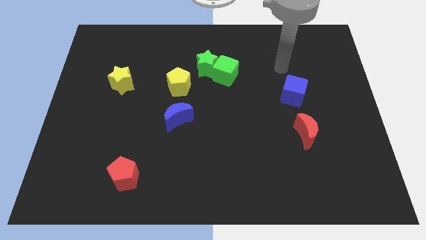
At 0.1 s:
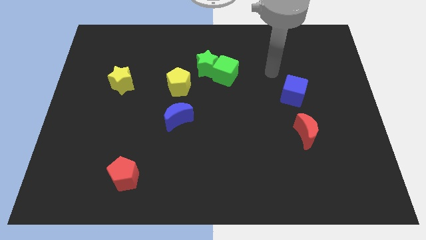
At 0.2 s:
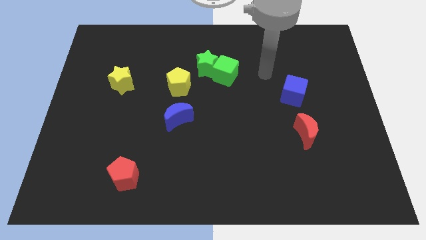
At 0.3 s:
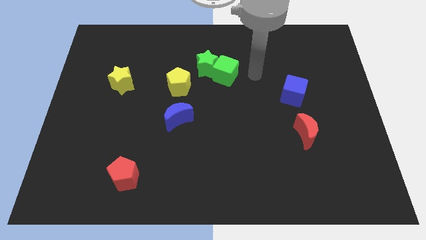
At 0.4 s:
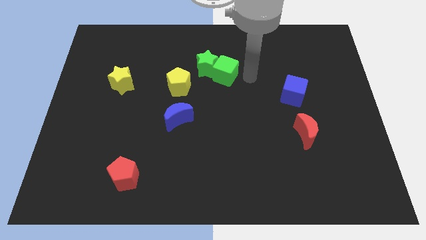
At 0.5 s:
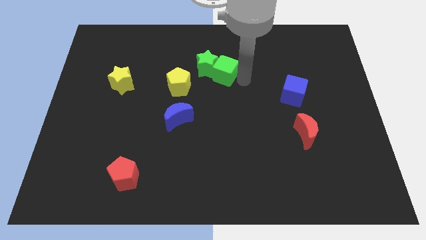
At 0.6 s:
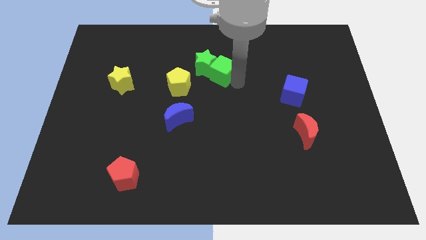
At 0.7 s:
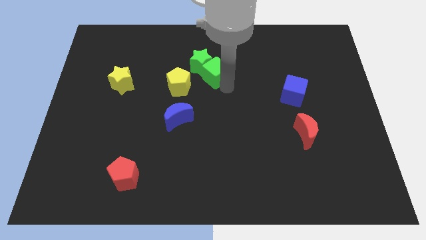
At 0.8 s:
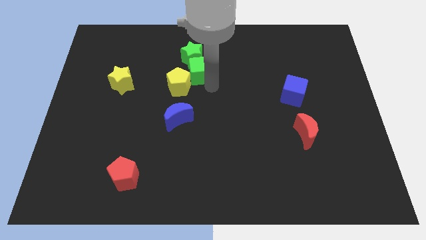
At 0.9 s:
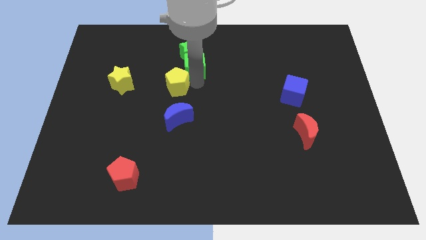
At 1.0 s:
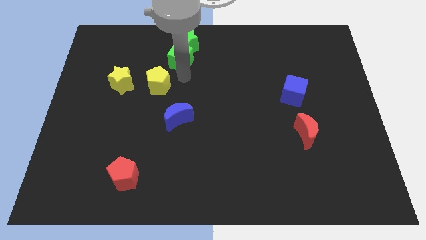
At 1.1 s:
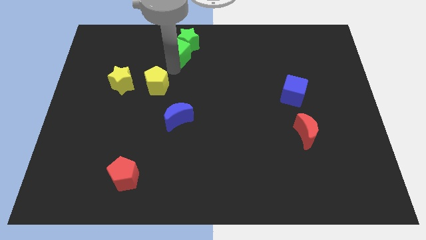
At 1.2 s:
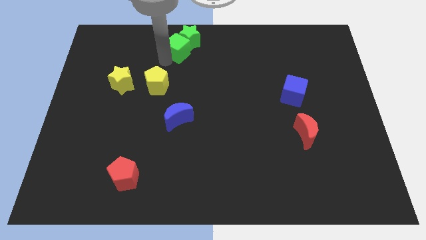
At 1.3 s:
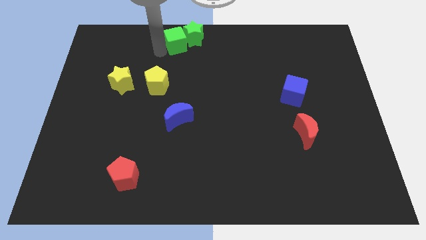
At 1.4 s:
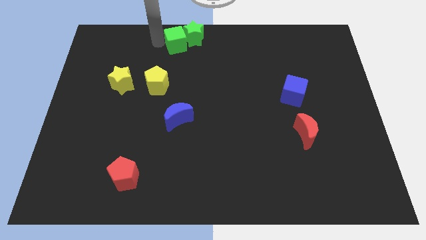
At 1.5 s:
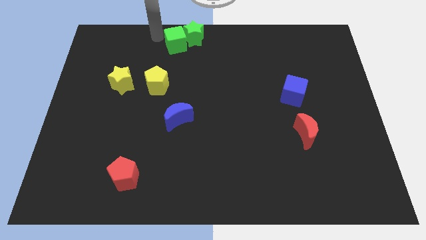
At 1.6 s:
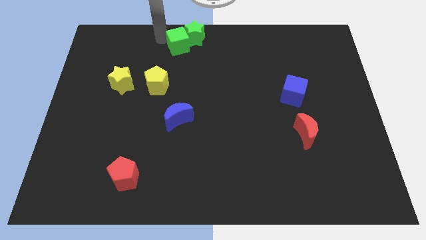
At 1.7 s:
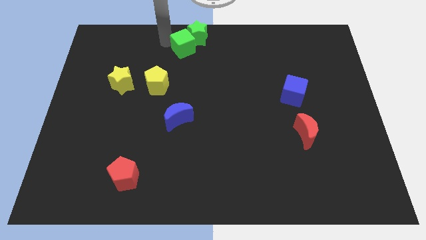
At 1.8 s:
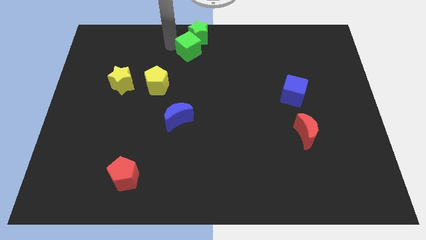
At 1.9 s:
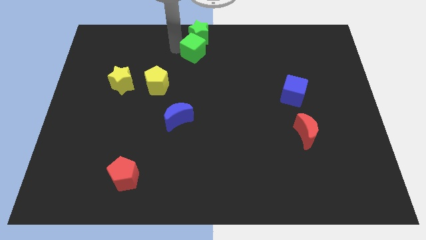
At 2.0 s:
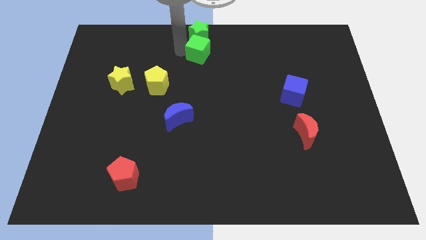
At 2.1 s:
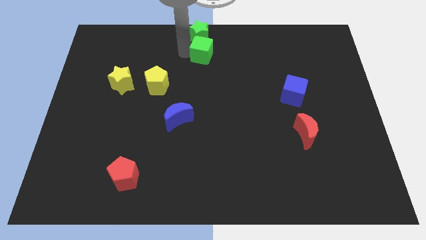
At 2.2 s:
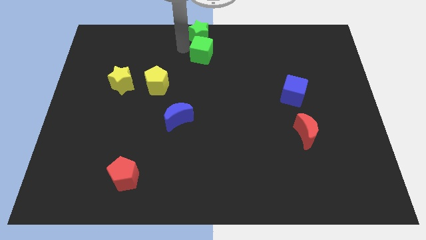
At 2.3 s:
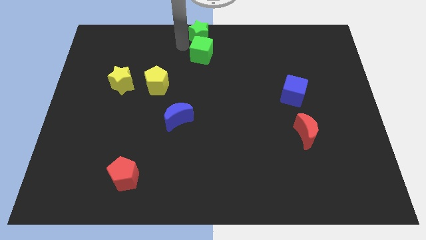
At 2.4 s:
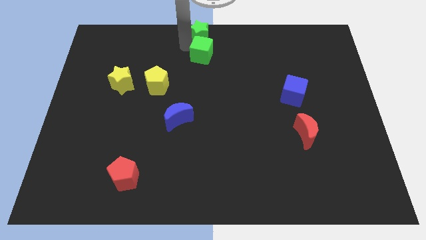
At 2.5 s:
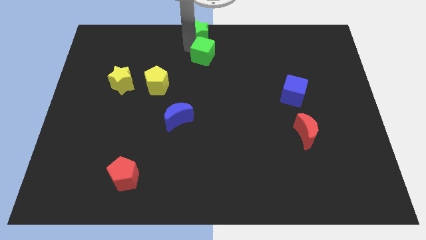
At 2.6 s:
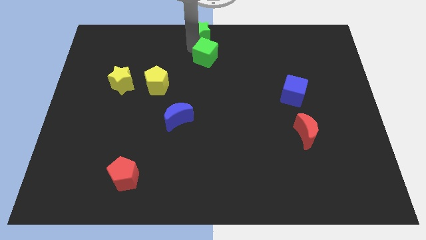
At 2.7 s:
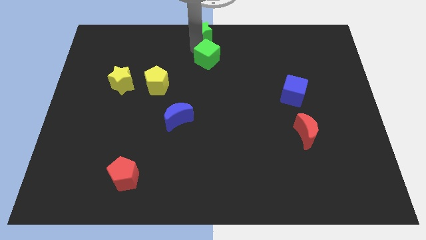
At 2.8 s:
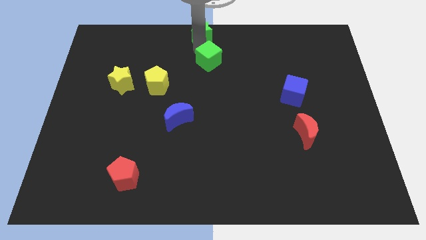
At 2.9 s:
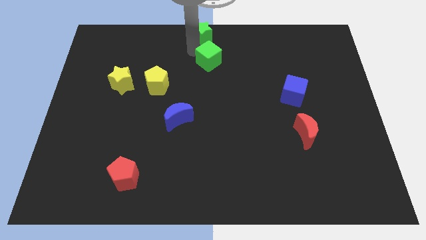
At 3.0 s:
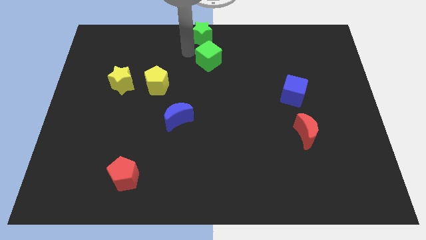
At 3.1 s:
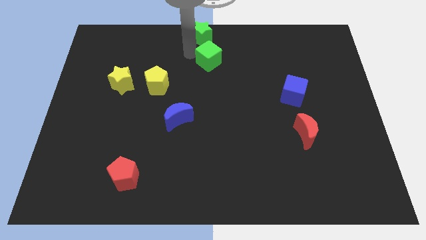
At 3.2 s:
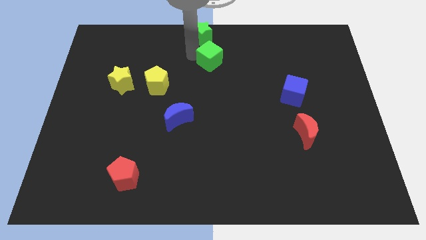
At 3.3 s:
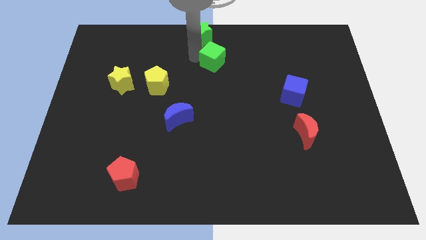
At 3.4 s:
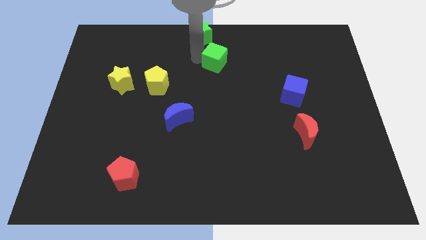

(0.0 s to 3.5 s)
pull the green cube apart from the green star

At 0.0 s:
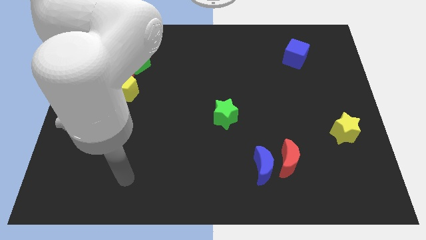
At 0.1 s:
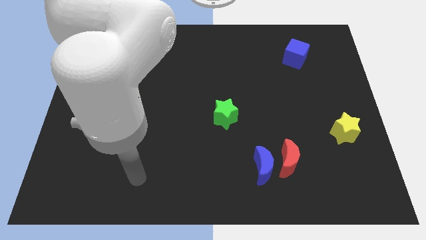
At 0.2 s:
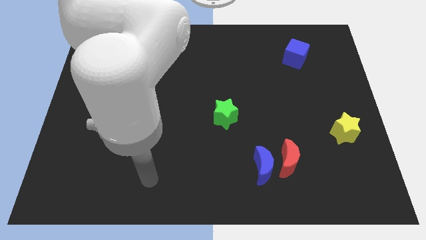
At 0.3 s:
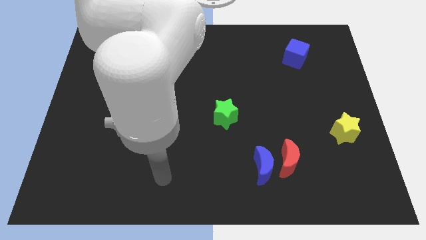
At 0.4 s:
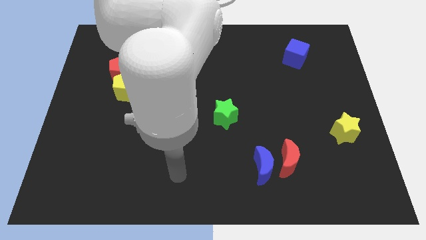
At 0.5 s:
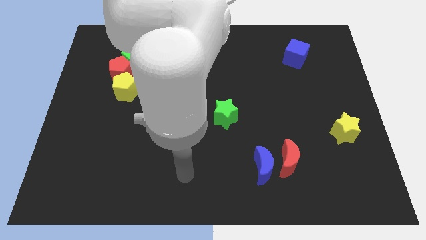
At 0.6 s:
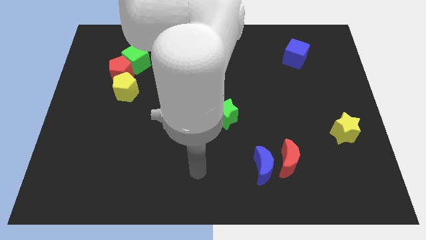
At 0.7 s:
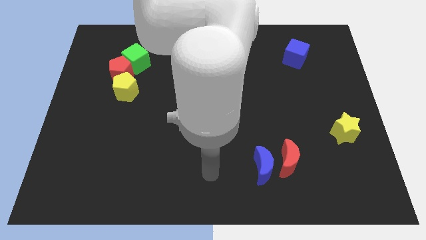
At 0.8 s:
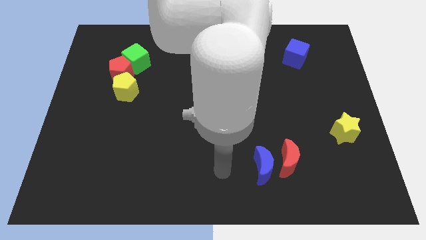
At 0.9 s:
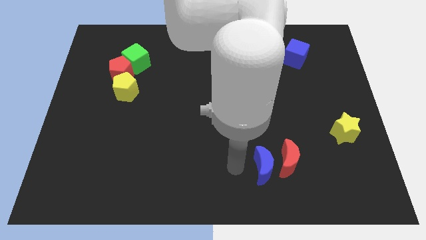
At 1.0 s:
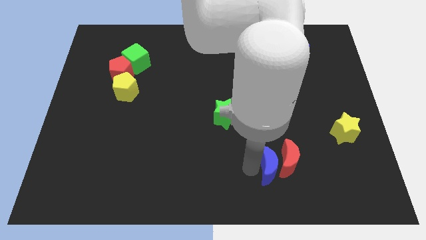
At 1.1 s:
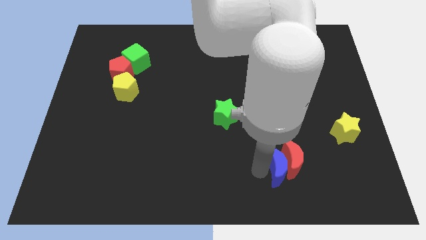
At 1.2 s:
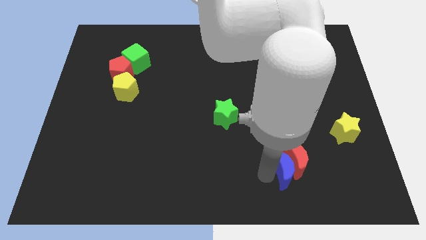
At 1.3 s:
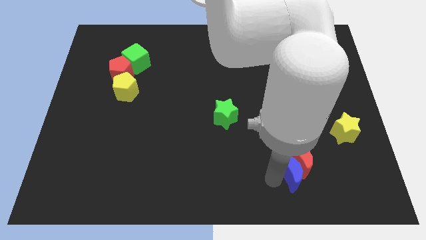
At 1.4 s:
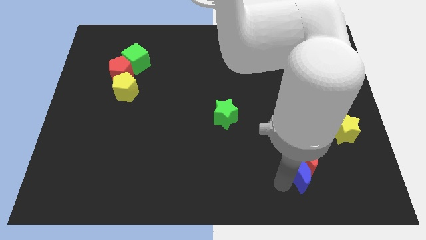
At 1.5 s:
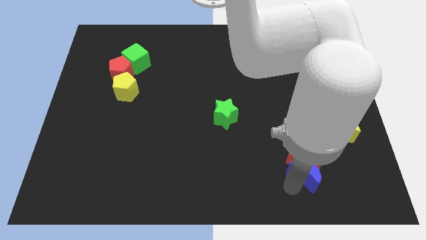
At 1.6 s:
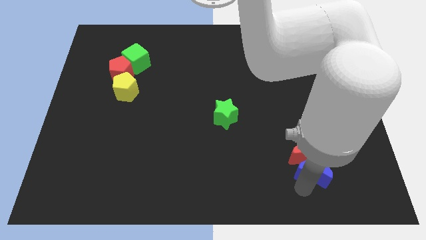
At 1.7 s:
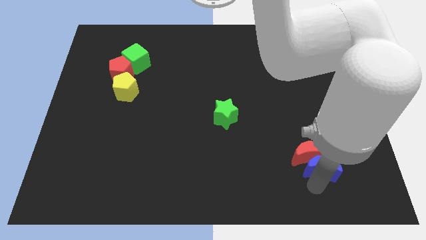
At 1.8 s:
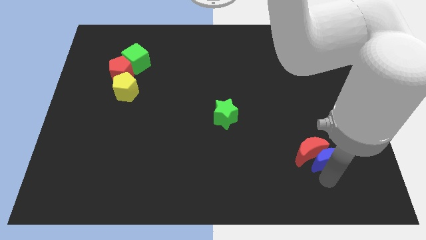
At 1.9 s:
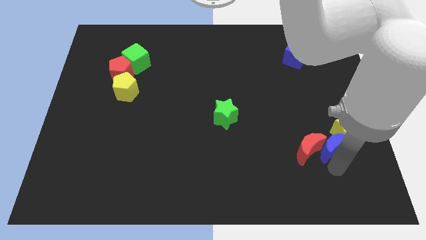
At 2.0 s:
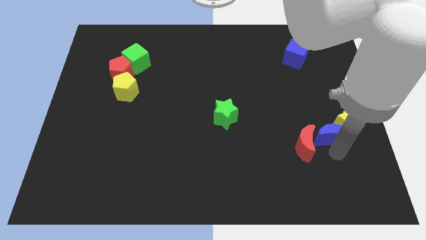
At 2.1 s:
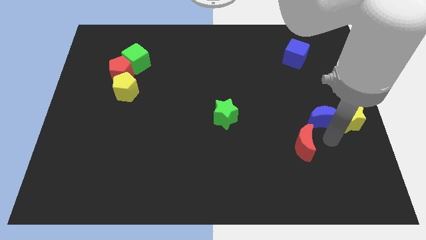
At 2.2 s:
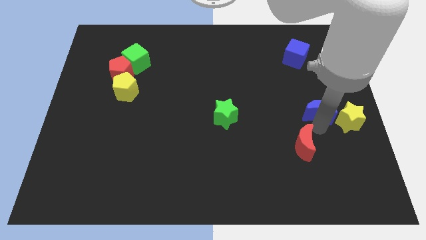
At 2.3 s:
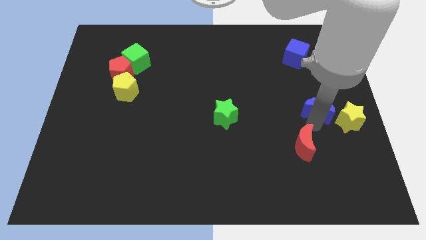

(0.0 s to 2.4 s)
move the red moon away from the blue moon

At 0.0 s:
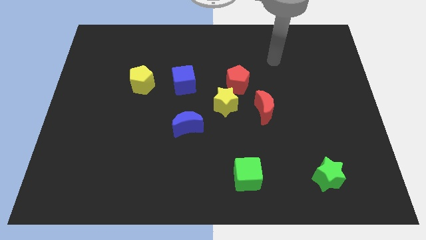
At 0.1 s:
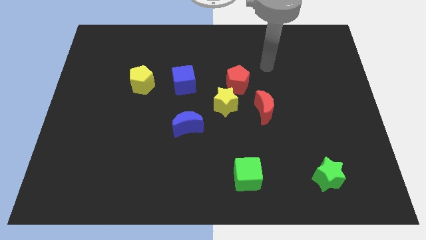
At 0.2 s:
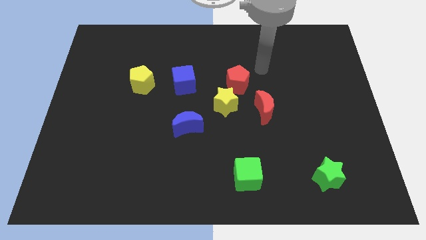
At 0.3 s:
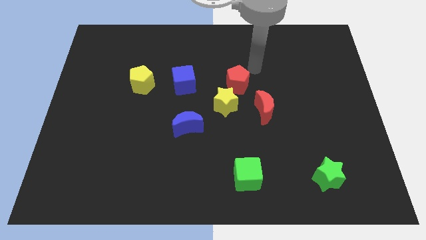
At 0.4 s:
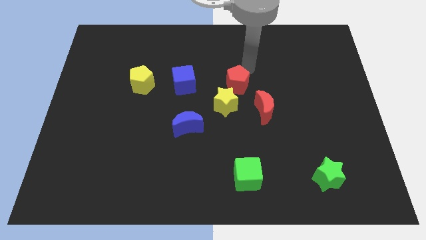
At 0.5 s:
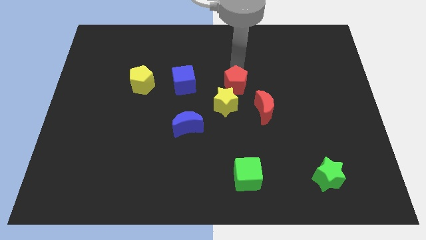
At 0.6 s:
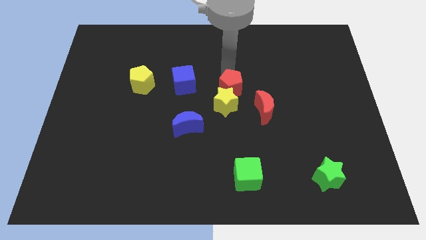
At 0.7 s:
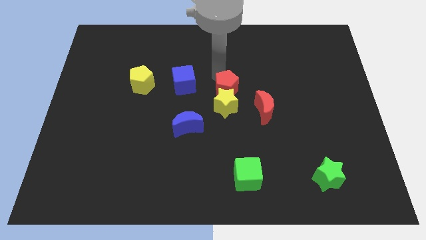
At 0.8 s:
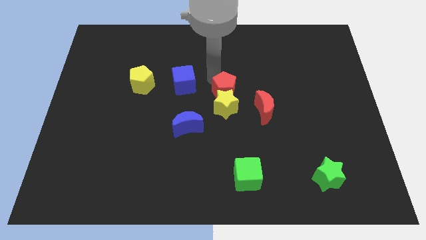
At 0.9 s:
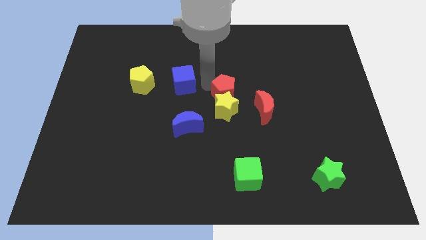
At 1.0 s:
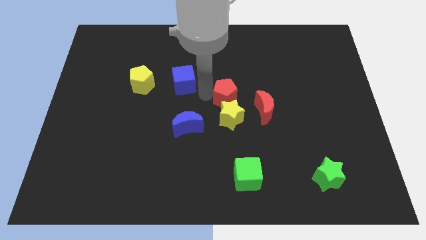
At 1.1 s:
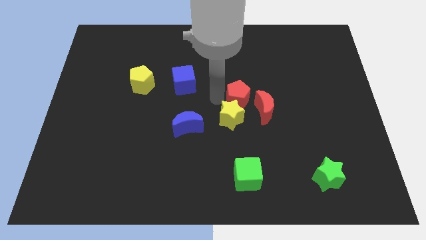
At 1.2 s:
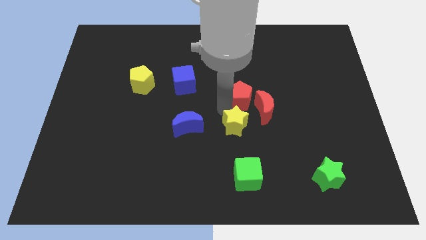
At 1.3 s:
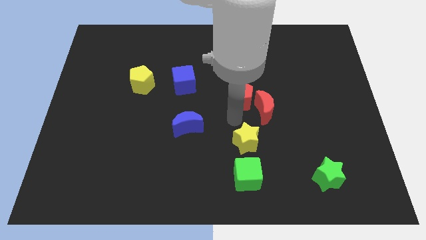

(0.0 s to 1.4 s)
pull the red pentagon apart from the yellow star

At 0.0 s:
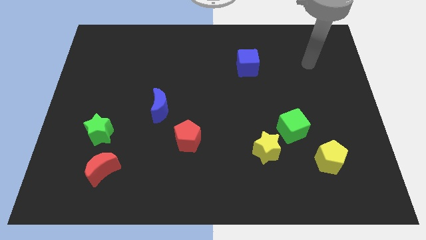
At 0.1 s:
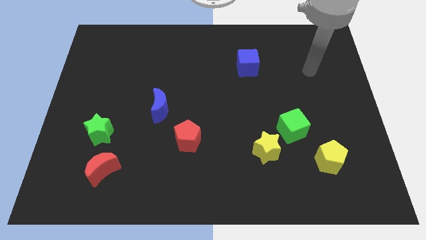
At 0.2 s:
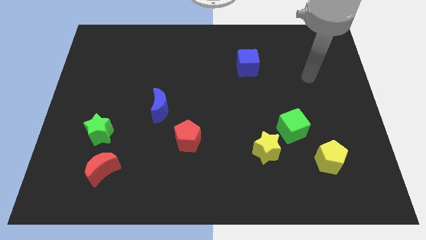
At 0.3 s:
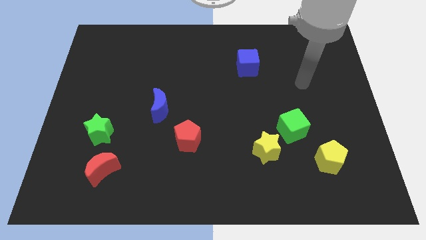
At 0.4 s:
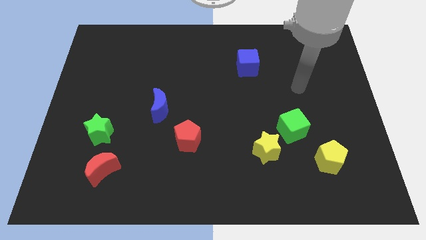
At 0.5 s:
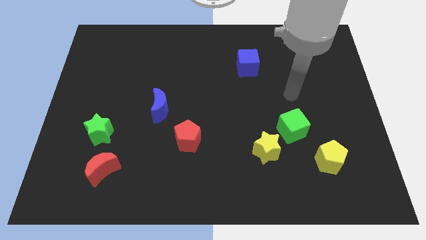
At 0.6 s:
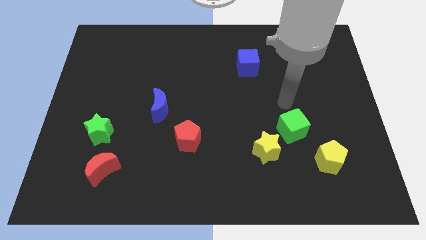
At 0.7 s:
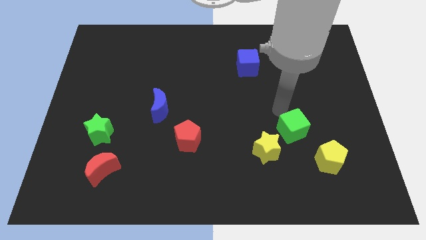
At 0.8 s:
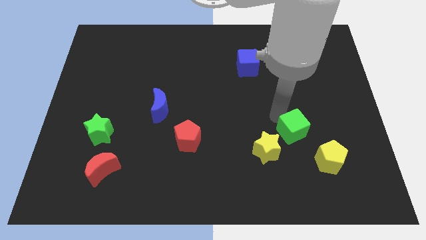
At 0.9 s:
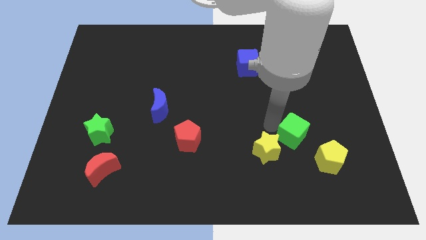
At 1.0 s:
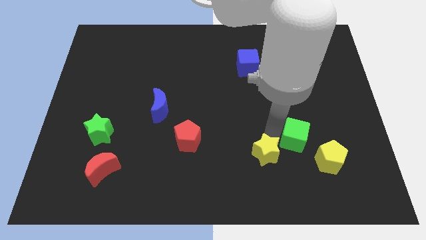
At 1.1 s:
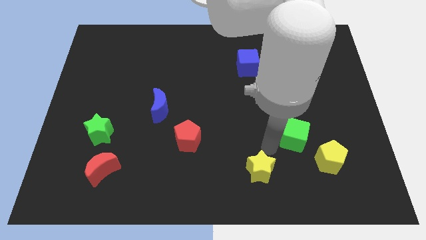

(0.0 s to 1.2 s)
pull the green cube apart from the yellow star

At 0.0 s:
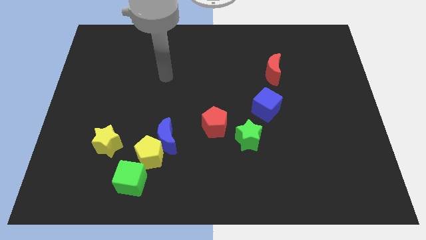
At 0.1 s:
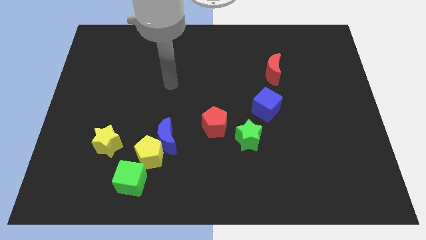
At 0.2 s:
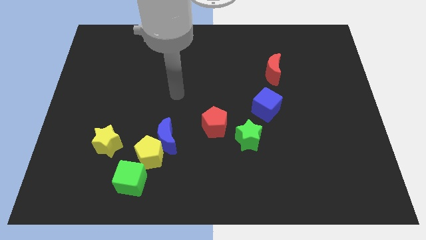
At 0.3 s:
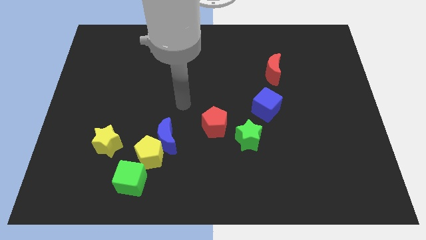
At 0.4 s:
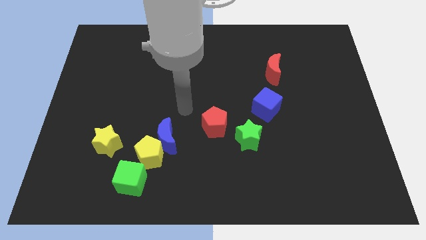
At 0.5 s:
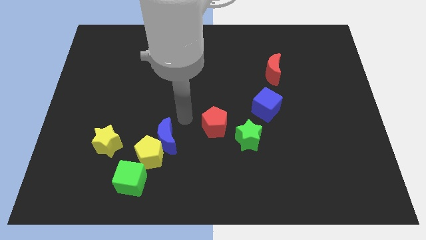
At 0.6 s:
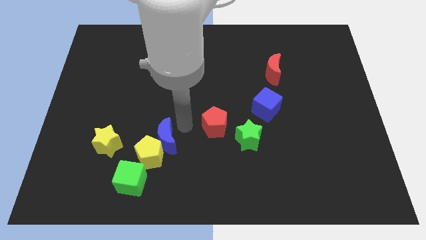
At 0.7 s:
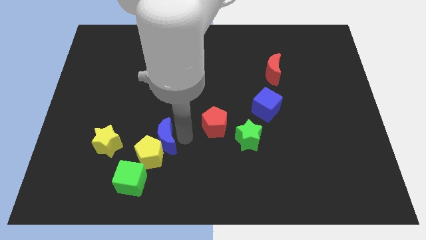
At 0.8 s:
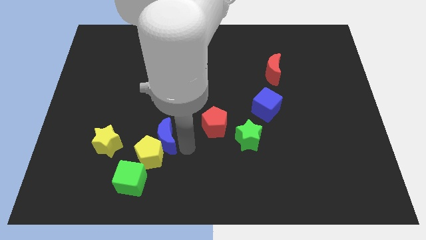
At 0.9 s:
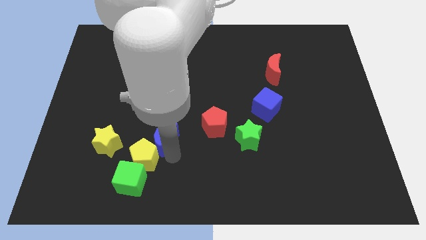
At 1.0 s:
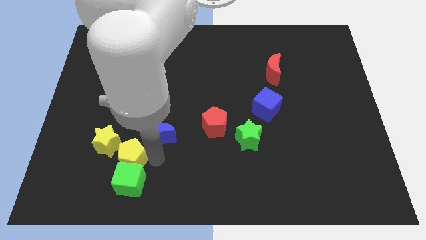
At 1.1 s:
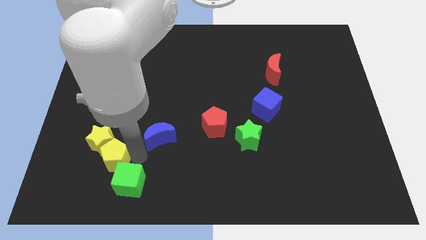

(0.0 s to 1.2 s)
separate the blue moon from the yellow pentagon
